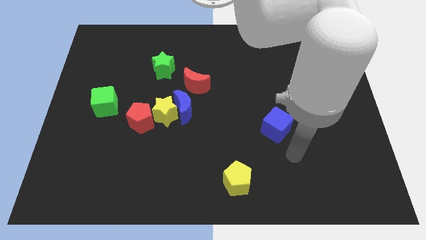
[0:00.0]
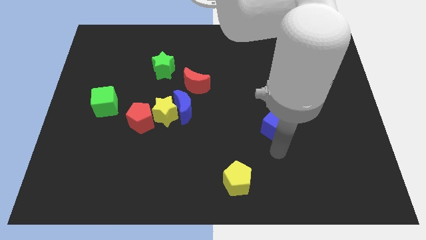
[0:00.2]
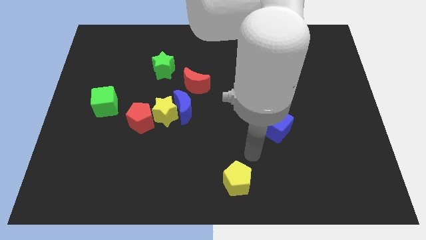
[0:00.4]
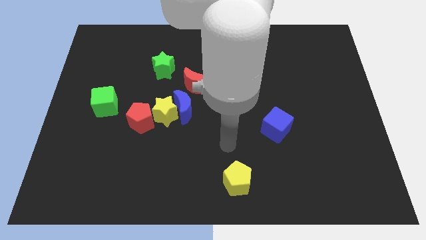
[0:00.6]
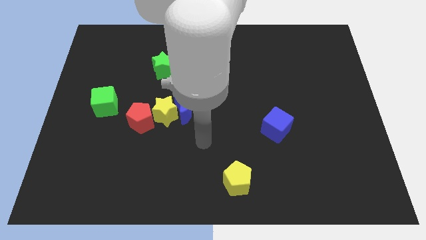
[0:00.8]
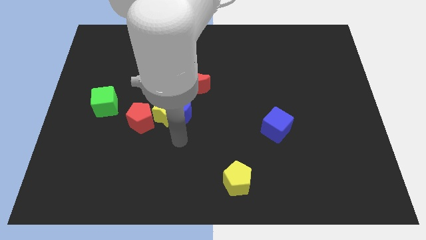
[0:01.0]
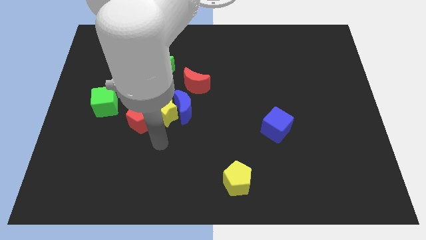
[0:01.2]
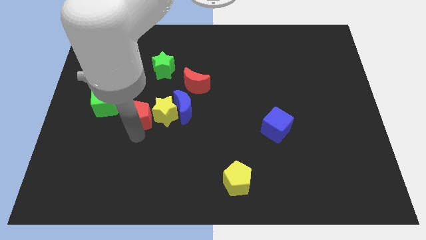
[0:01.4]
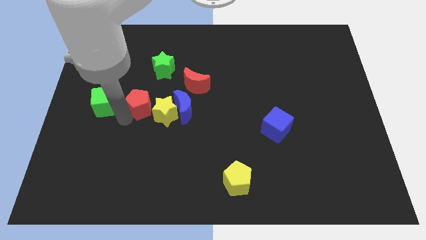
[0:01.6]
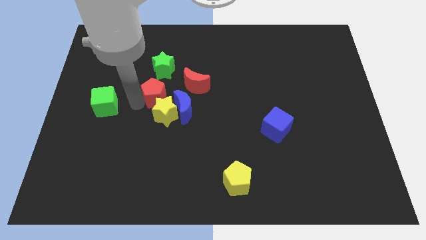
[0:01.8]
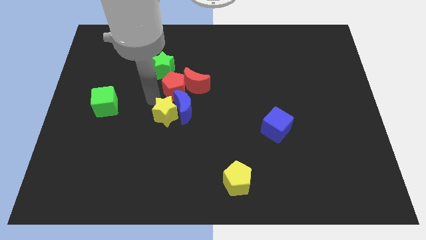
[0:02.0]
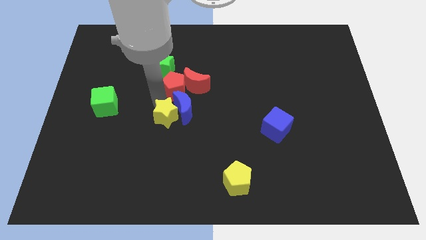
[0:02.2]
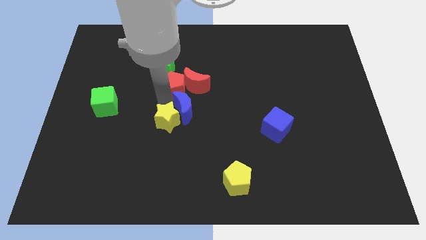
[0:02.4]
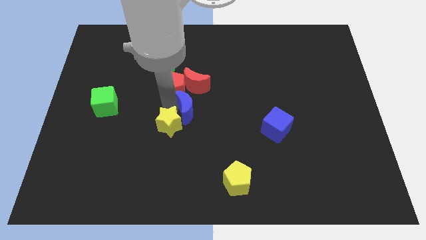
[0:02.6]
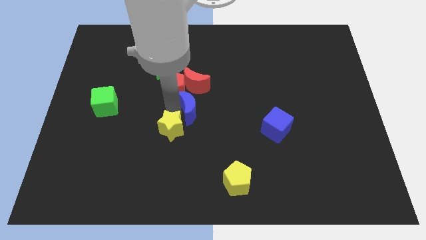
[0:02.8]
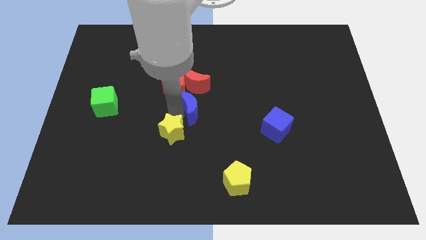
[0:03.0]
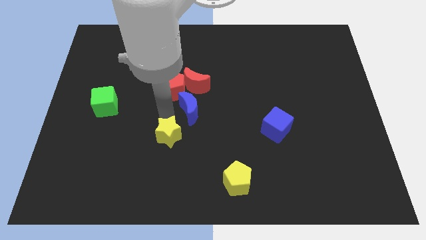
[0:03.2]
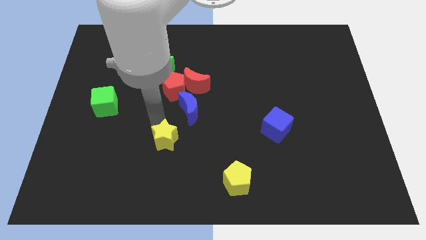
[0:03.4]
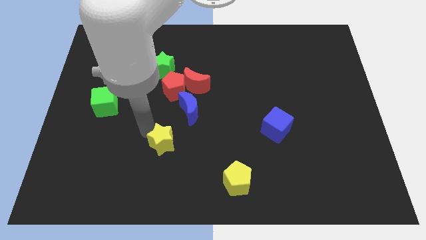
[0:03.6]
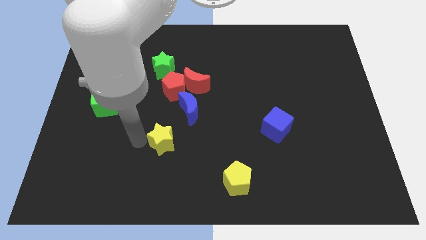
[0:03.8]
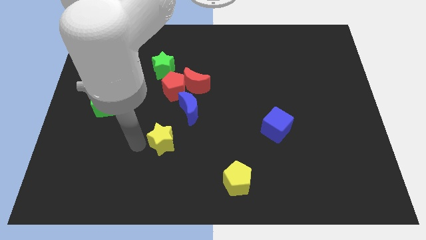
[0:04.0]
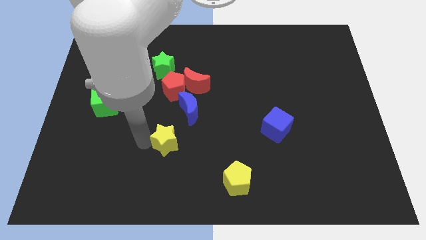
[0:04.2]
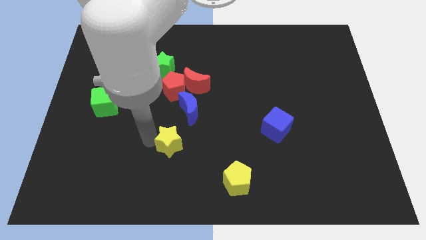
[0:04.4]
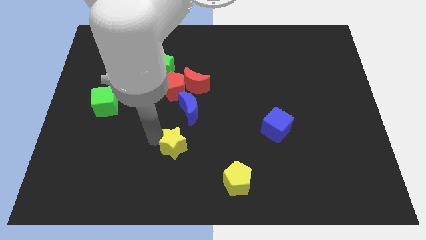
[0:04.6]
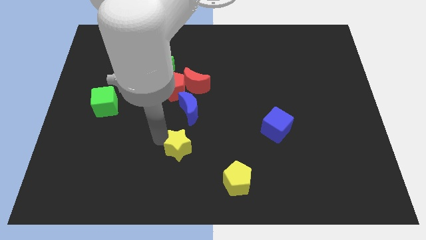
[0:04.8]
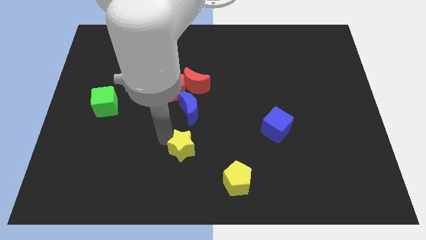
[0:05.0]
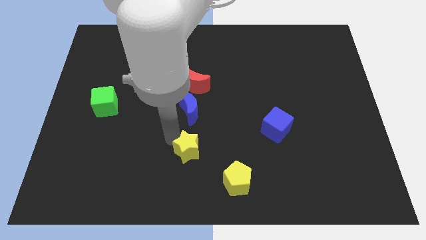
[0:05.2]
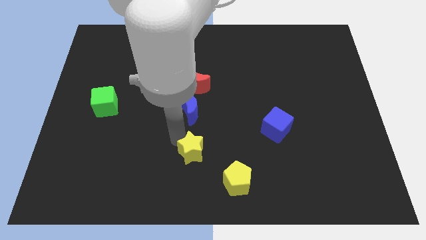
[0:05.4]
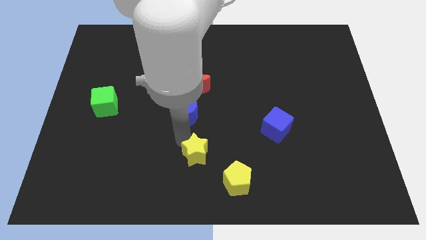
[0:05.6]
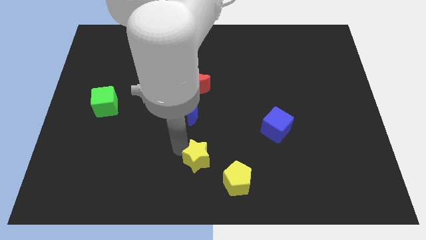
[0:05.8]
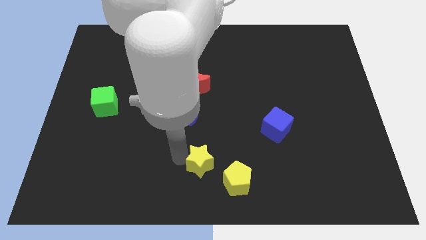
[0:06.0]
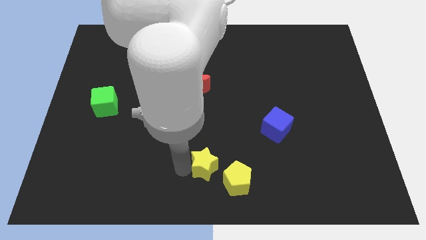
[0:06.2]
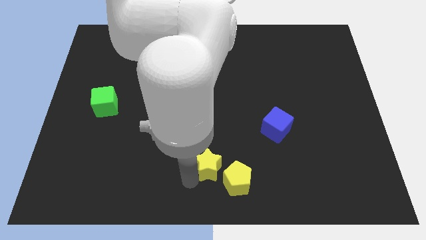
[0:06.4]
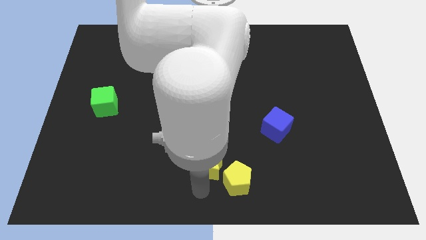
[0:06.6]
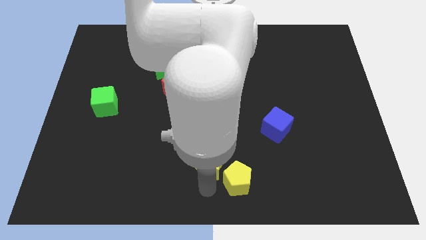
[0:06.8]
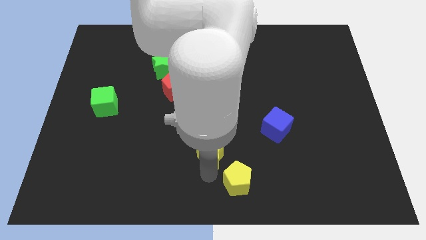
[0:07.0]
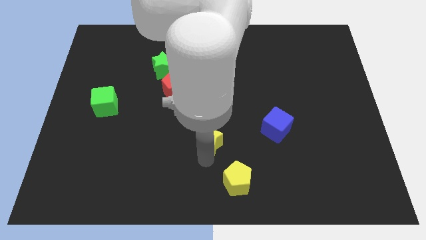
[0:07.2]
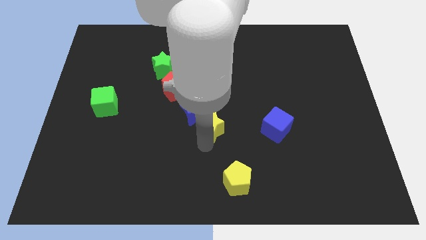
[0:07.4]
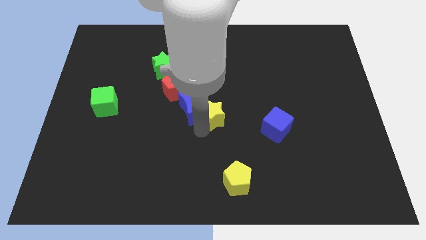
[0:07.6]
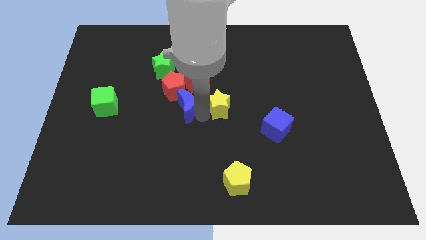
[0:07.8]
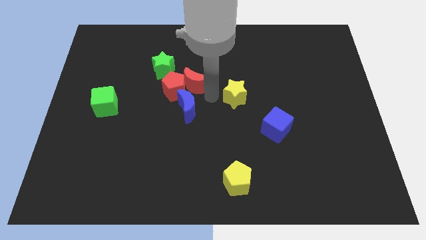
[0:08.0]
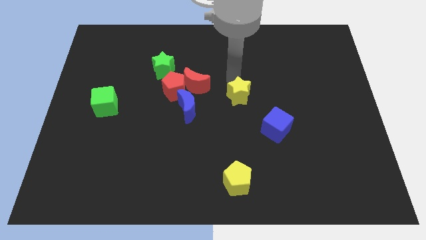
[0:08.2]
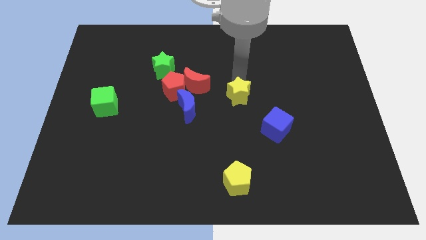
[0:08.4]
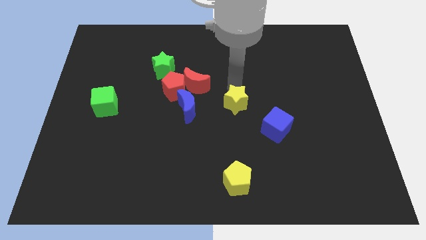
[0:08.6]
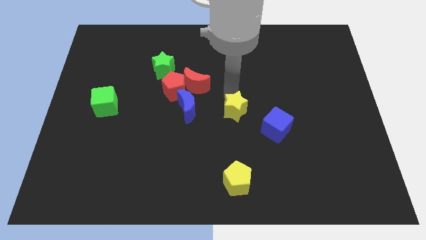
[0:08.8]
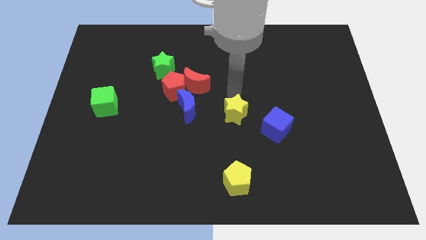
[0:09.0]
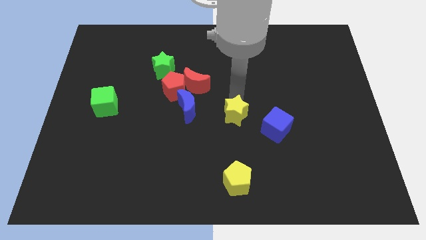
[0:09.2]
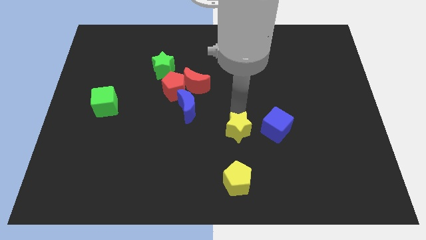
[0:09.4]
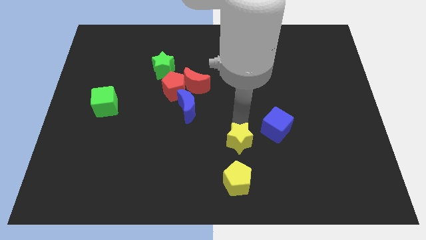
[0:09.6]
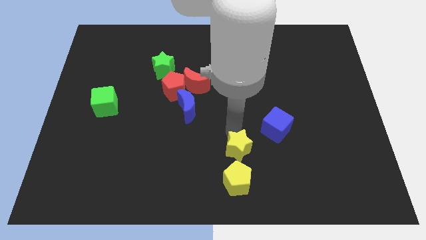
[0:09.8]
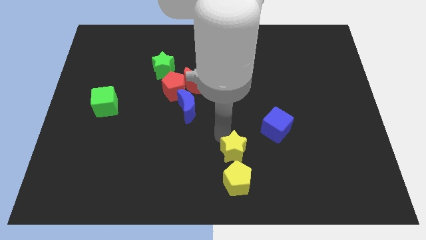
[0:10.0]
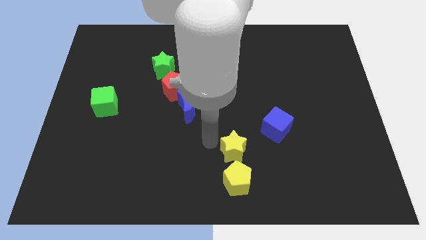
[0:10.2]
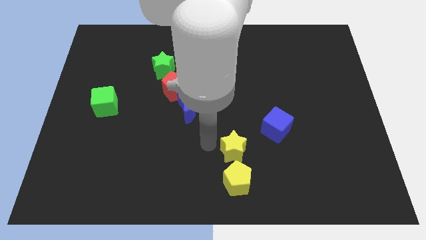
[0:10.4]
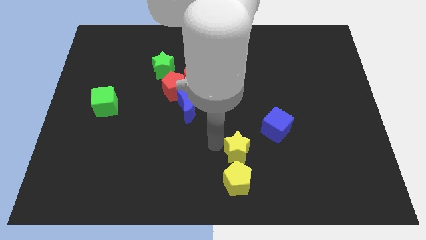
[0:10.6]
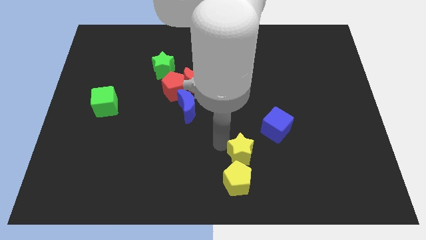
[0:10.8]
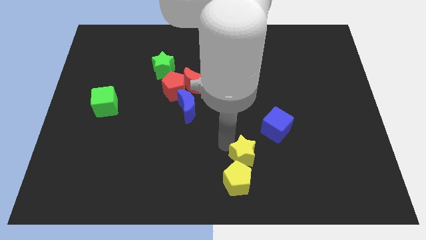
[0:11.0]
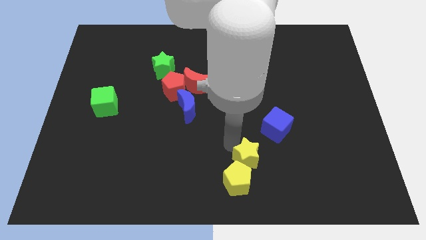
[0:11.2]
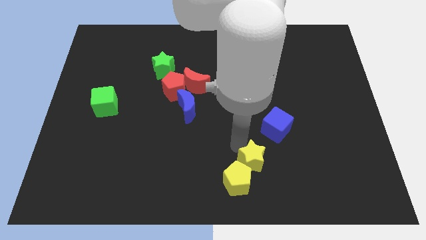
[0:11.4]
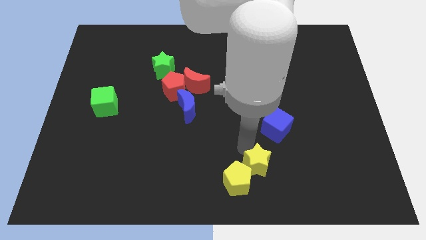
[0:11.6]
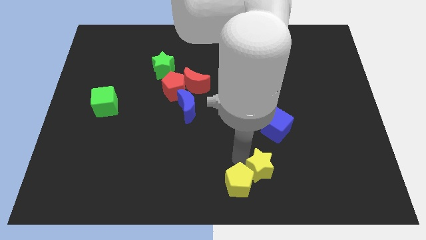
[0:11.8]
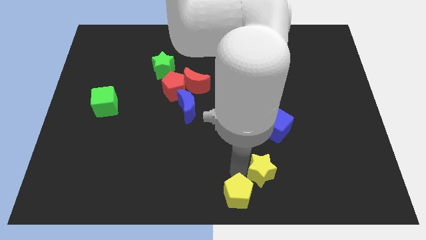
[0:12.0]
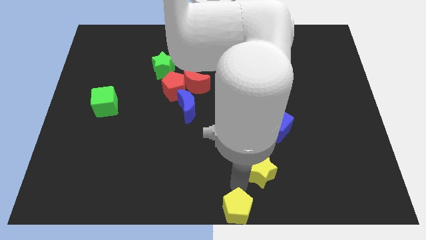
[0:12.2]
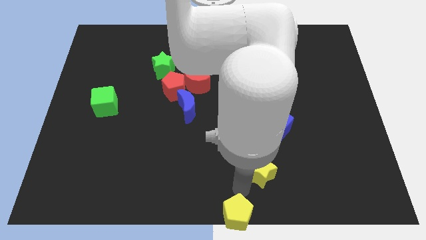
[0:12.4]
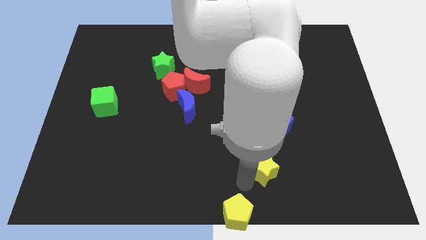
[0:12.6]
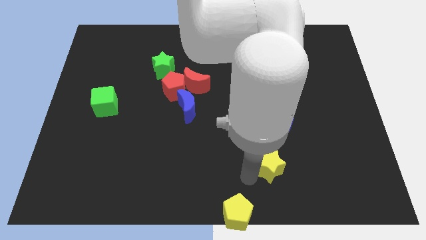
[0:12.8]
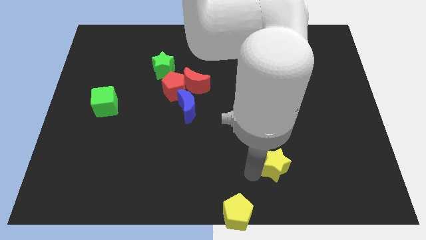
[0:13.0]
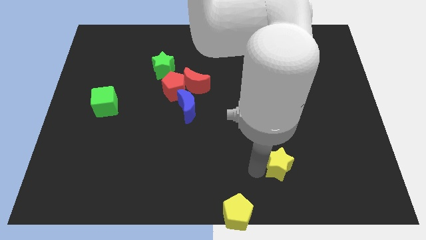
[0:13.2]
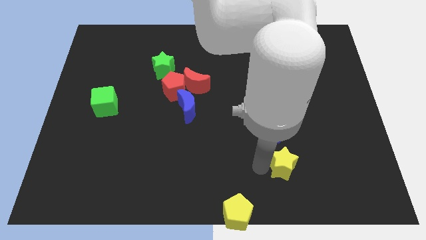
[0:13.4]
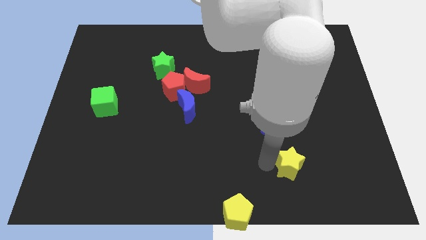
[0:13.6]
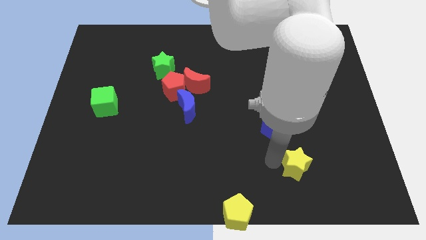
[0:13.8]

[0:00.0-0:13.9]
move the yellow star diagonally down and to the right of the blue cube
